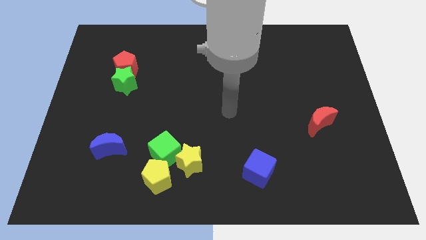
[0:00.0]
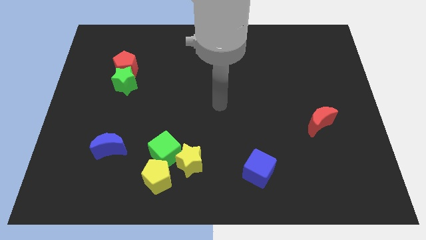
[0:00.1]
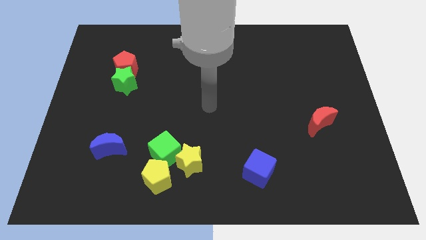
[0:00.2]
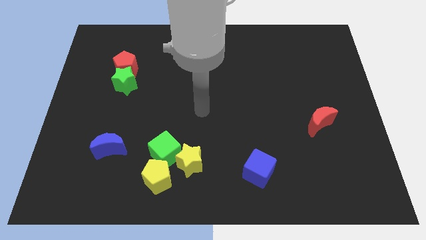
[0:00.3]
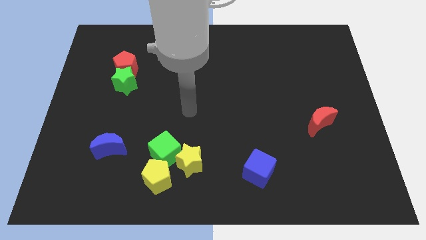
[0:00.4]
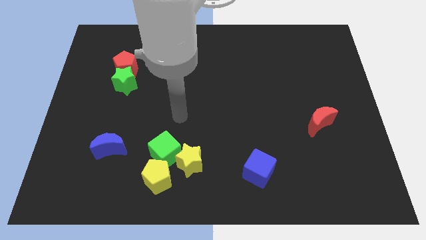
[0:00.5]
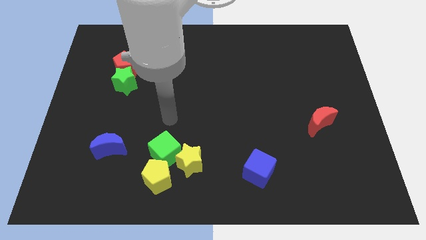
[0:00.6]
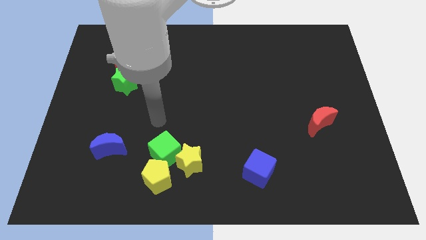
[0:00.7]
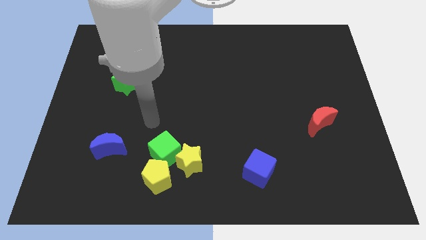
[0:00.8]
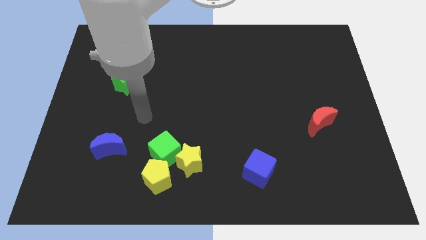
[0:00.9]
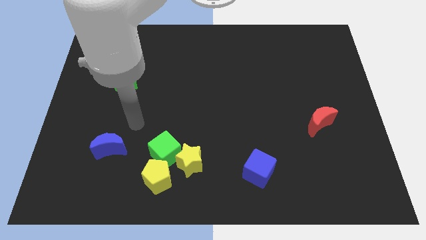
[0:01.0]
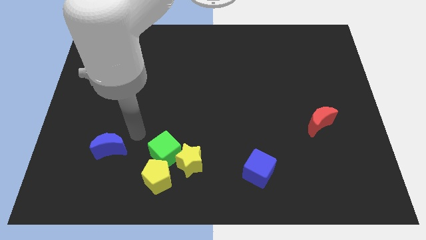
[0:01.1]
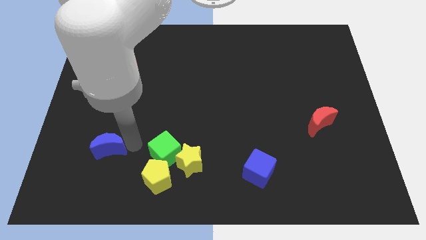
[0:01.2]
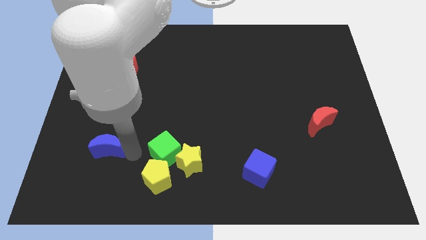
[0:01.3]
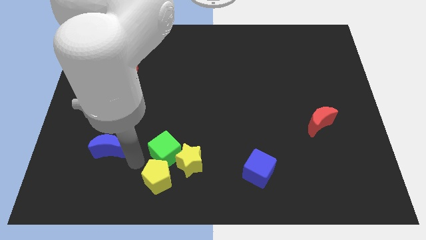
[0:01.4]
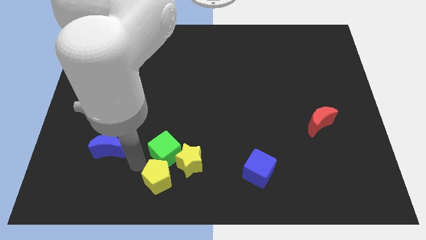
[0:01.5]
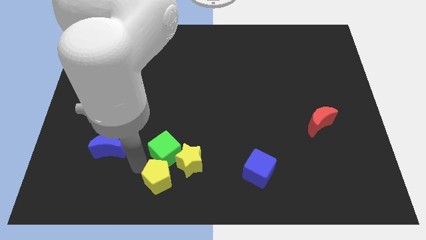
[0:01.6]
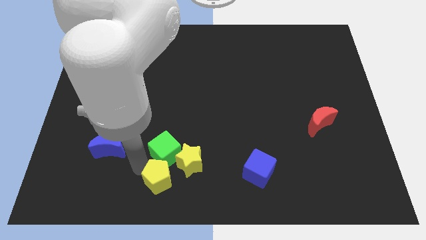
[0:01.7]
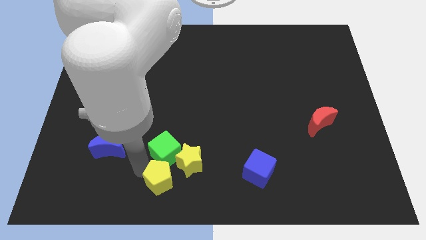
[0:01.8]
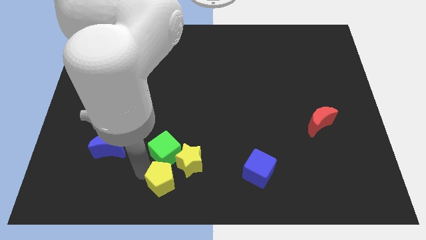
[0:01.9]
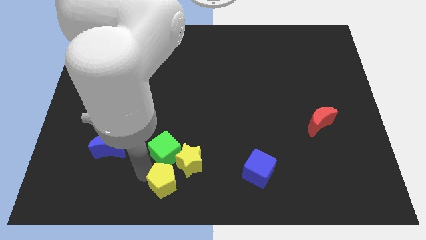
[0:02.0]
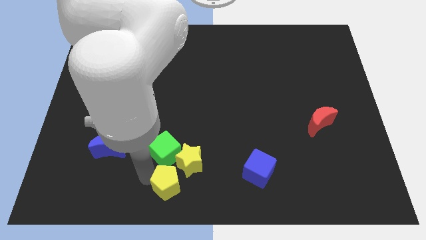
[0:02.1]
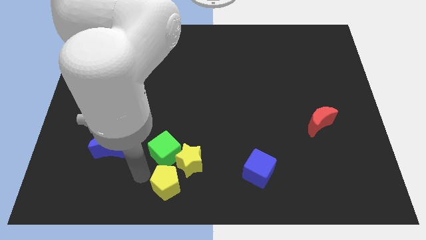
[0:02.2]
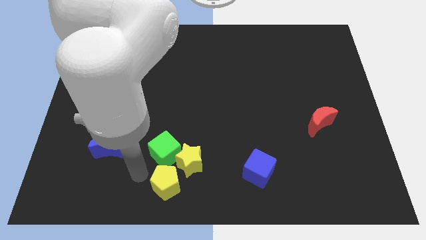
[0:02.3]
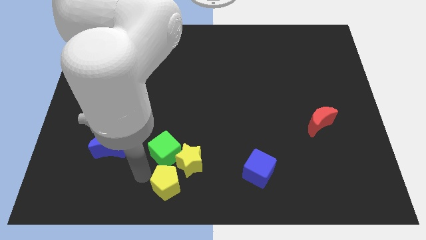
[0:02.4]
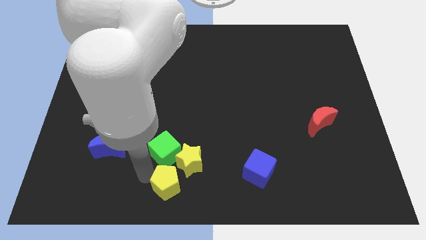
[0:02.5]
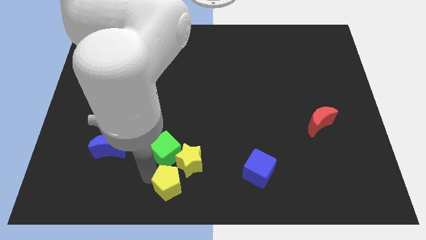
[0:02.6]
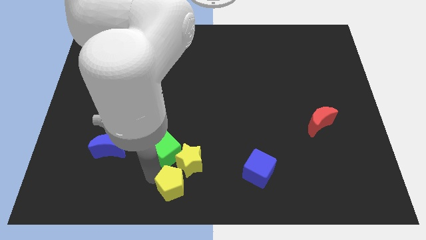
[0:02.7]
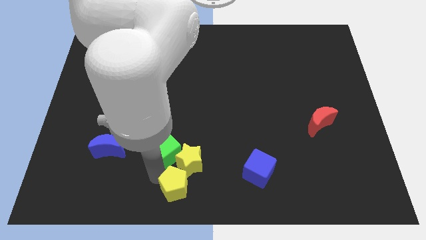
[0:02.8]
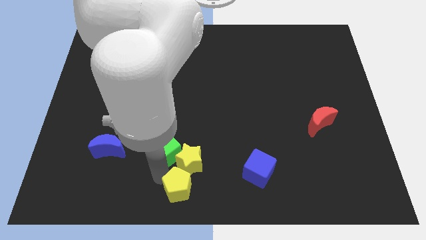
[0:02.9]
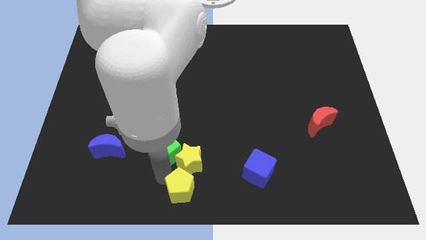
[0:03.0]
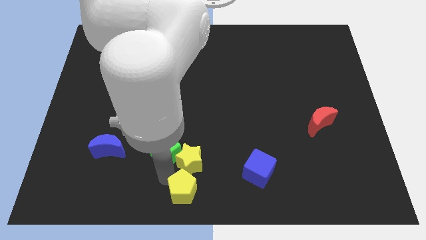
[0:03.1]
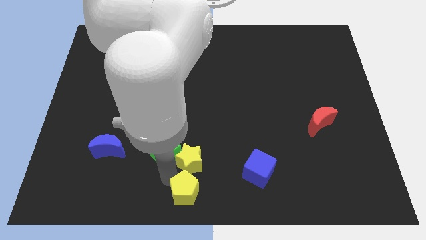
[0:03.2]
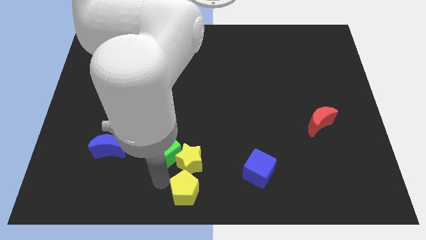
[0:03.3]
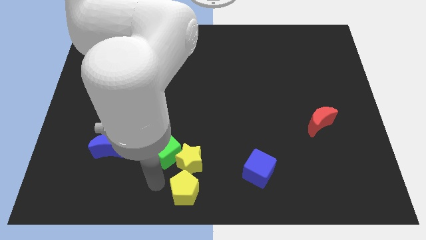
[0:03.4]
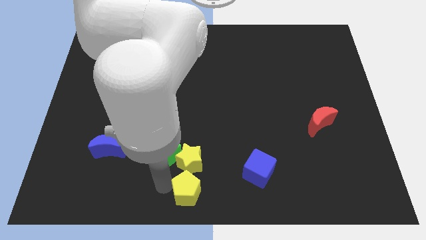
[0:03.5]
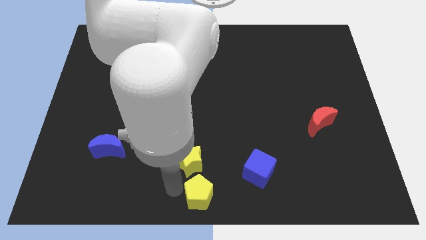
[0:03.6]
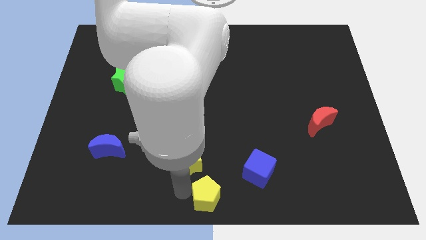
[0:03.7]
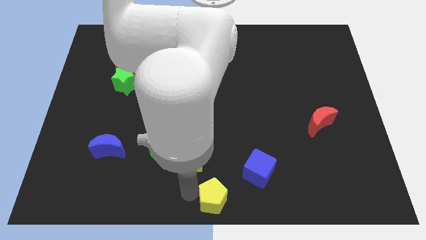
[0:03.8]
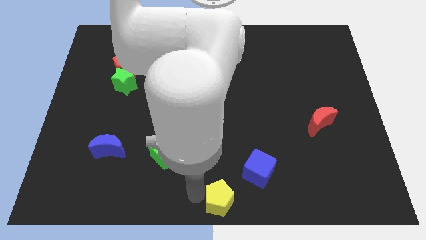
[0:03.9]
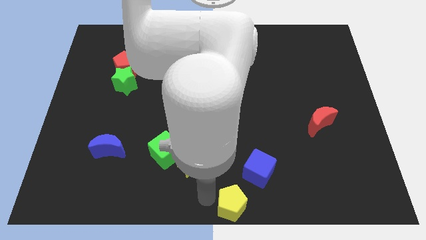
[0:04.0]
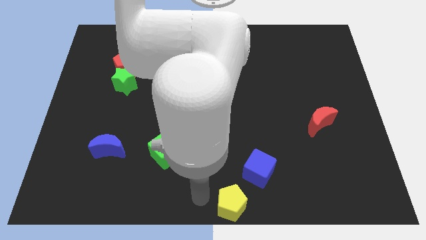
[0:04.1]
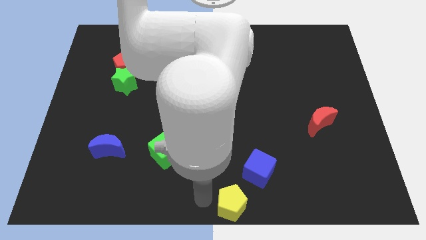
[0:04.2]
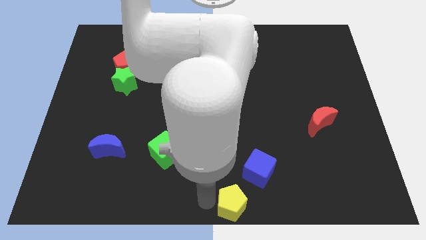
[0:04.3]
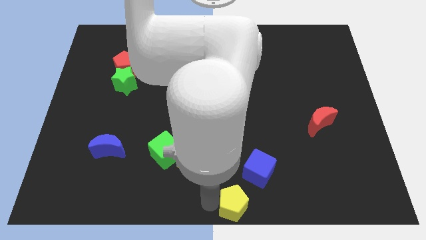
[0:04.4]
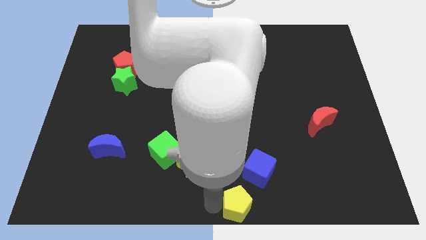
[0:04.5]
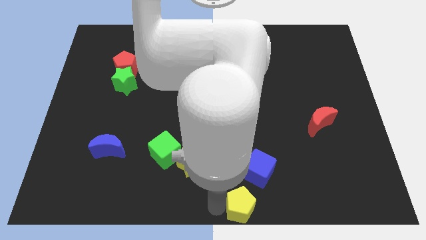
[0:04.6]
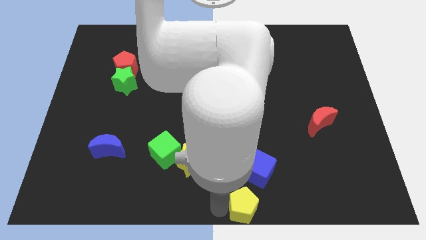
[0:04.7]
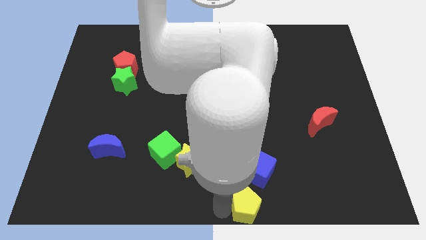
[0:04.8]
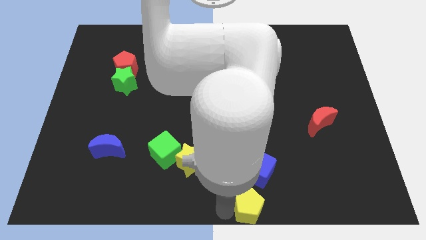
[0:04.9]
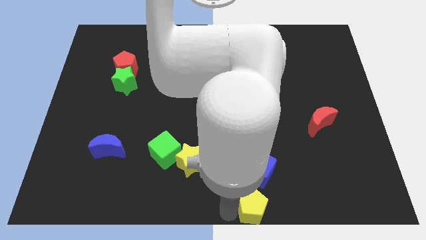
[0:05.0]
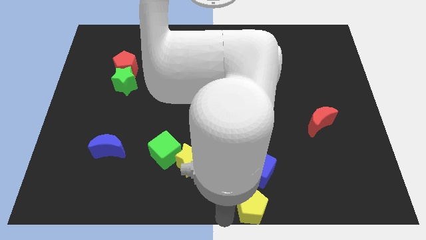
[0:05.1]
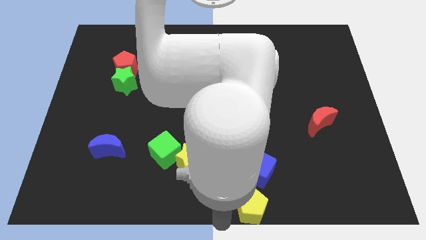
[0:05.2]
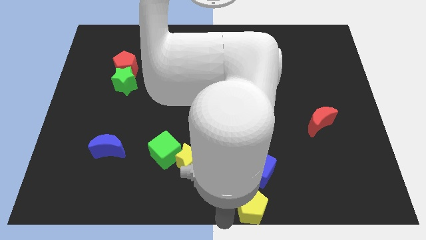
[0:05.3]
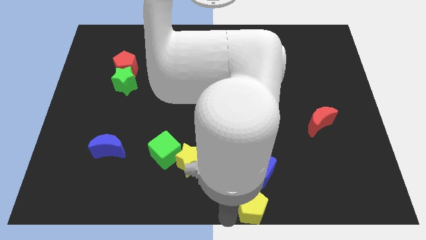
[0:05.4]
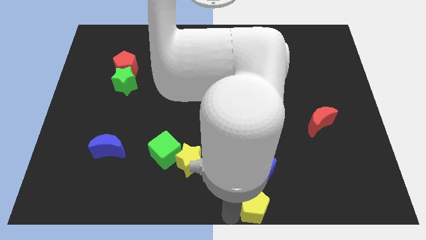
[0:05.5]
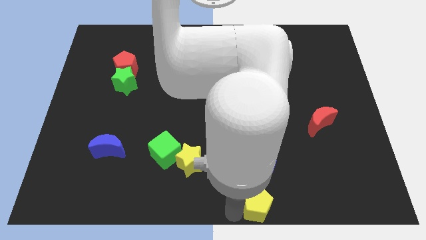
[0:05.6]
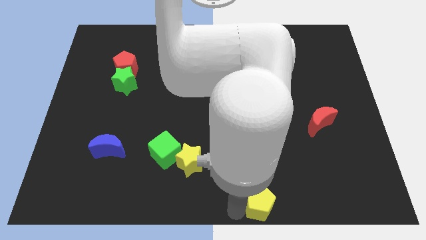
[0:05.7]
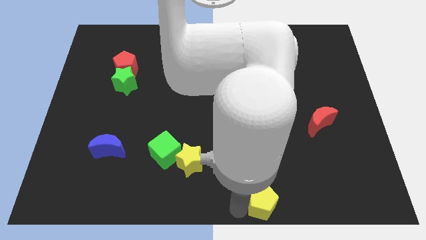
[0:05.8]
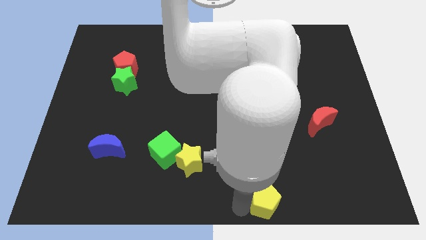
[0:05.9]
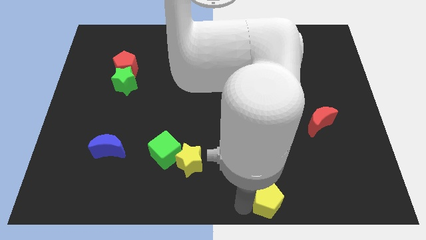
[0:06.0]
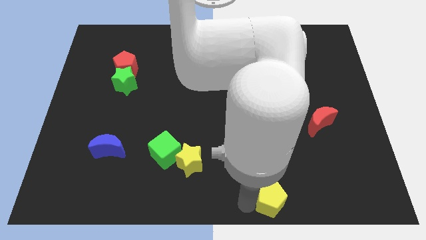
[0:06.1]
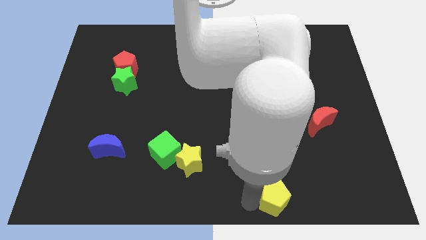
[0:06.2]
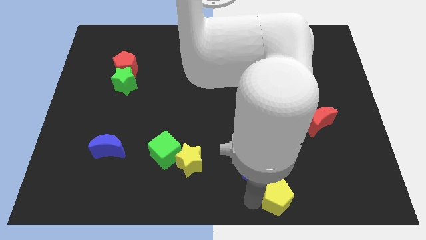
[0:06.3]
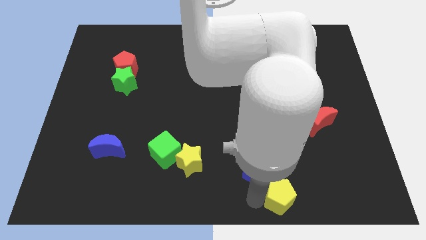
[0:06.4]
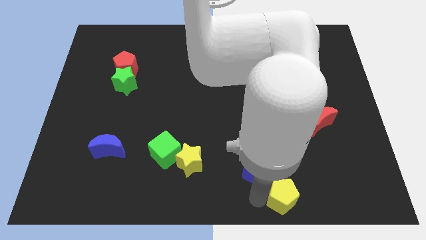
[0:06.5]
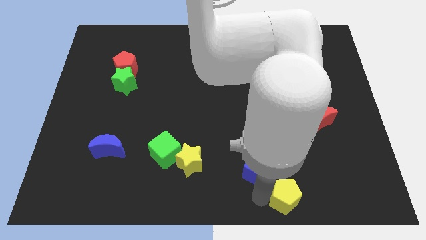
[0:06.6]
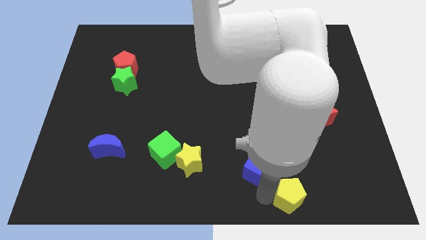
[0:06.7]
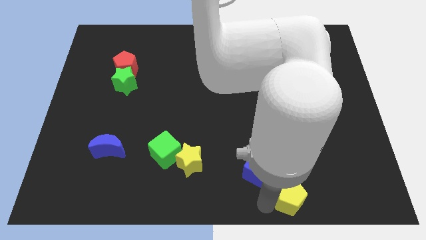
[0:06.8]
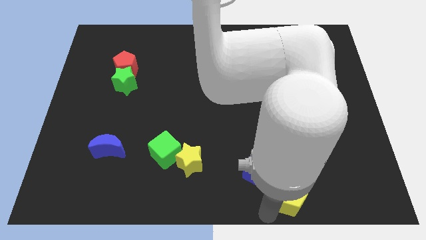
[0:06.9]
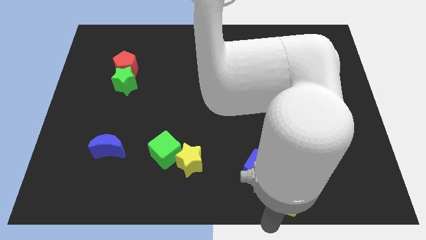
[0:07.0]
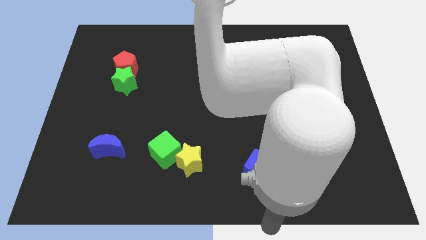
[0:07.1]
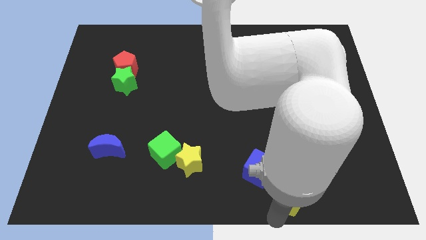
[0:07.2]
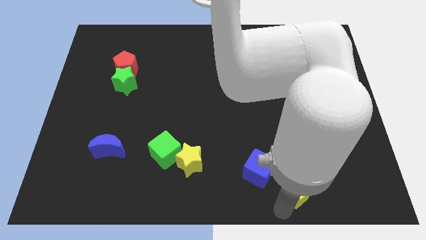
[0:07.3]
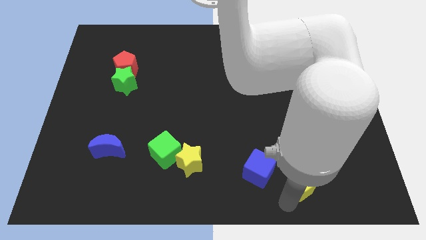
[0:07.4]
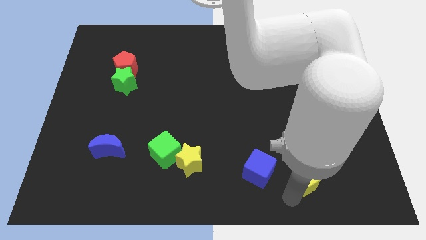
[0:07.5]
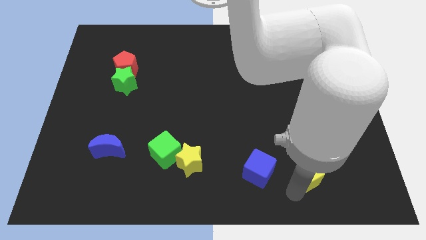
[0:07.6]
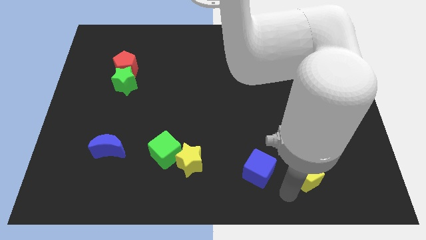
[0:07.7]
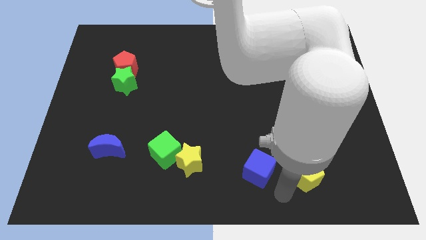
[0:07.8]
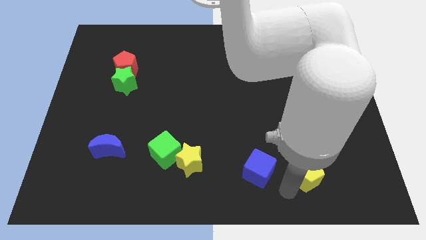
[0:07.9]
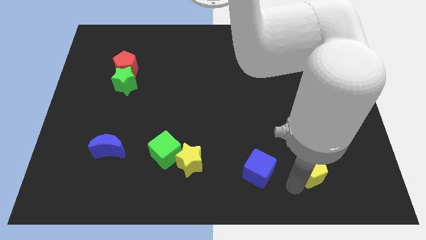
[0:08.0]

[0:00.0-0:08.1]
slide the yellow pentagon below the red moon
